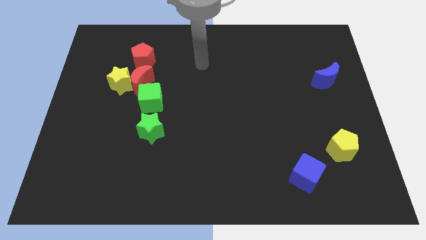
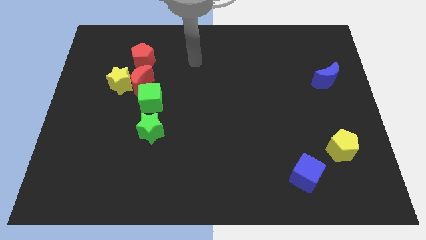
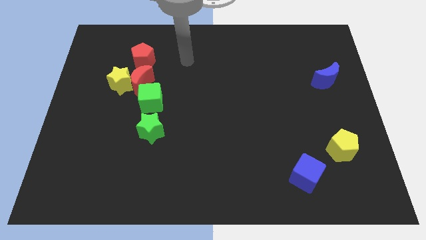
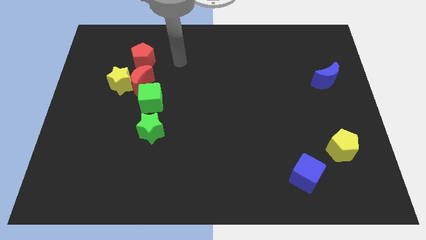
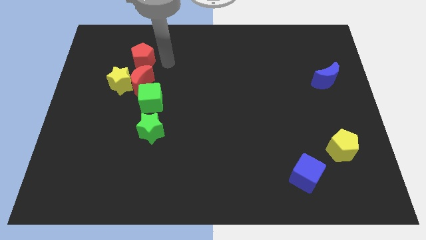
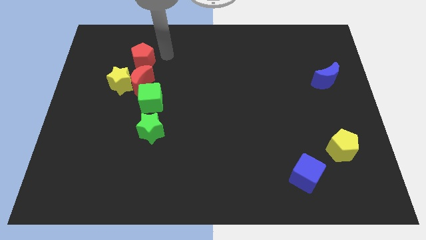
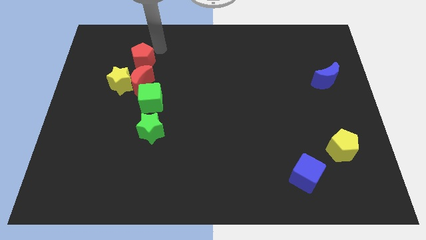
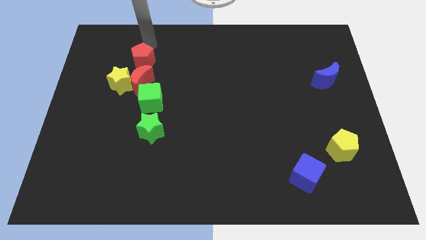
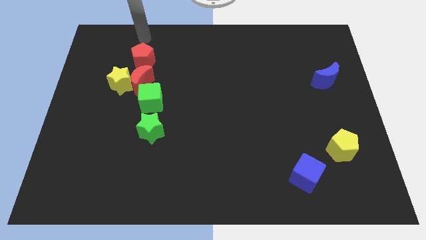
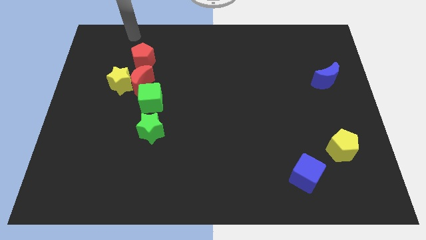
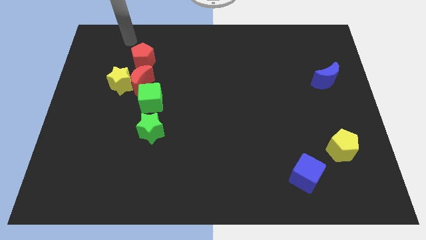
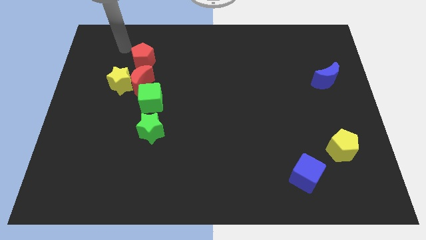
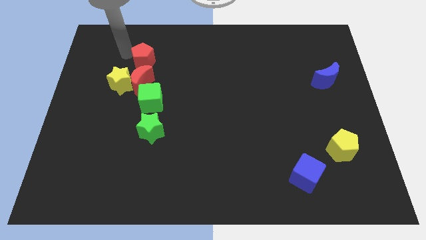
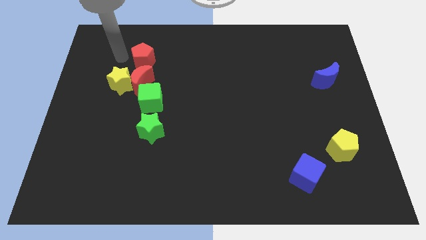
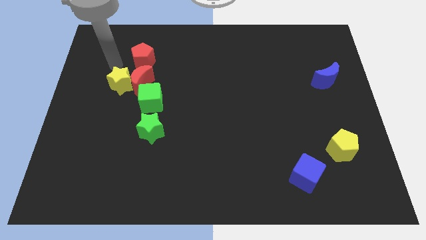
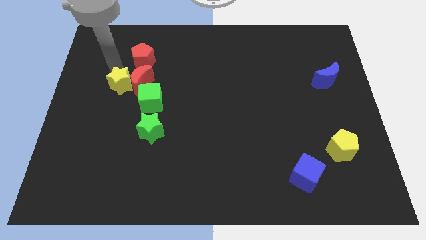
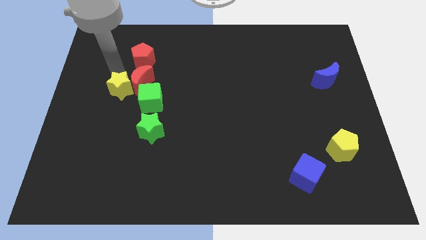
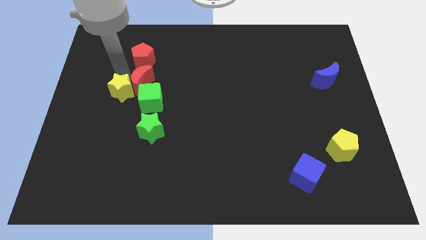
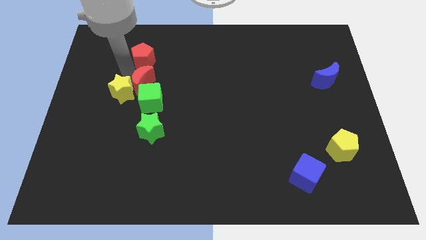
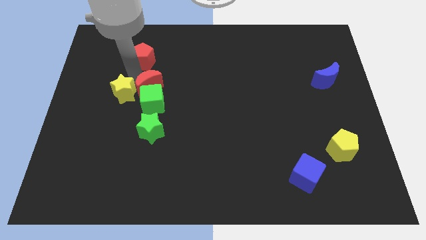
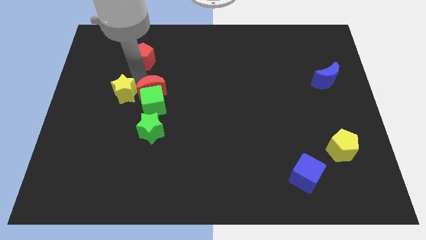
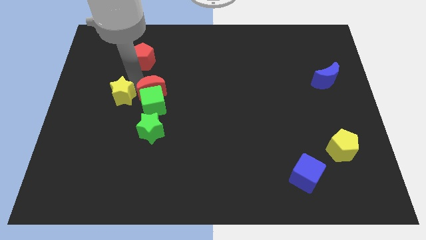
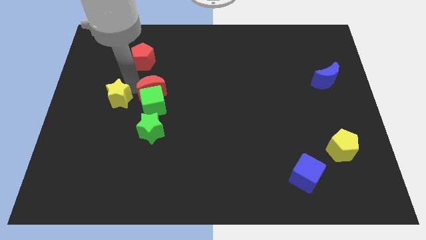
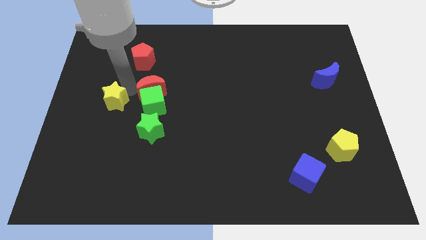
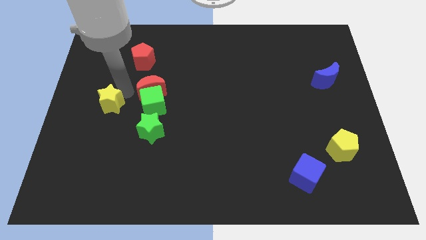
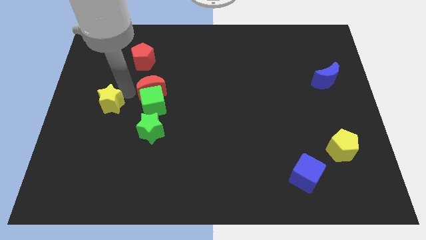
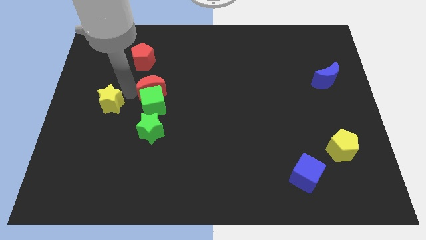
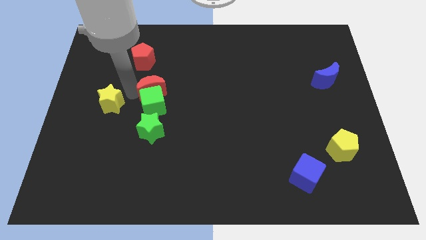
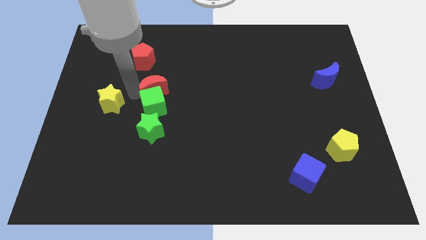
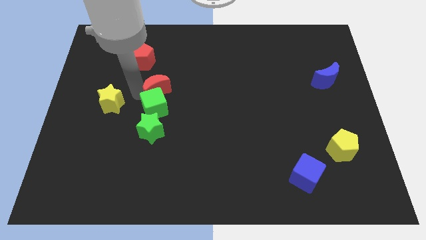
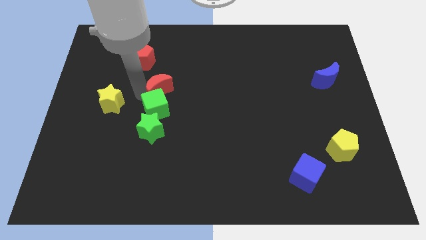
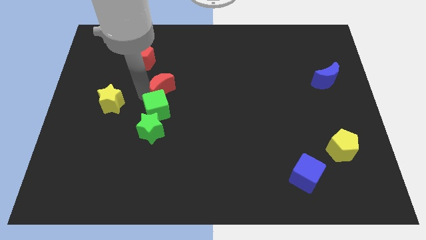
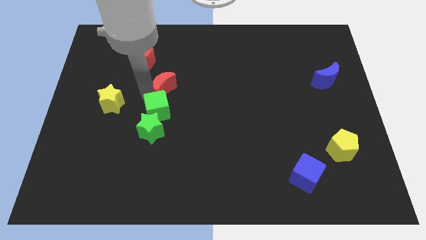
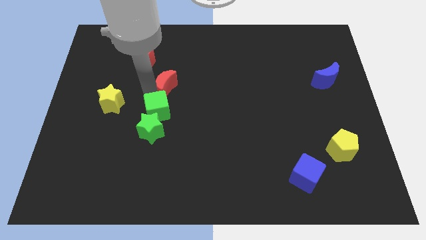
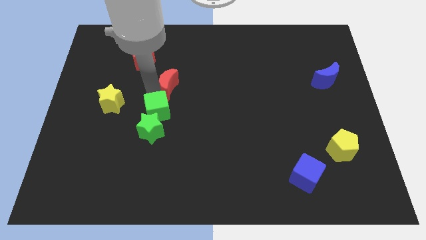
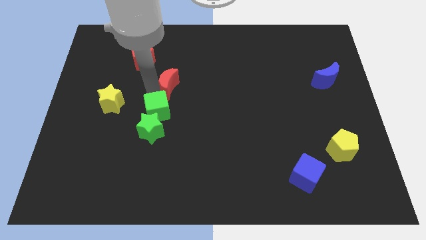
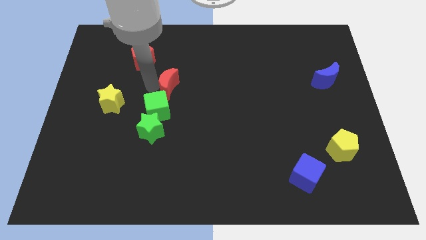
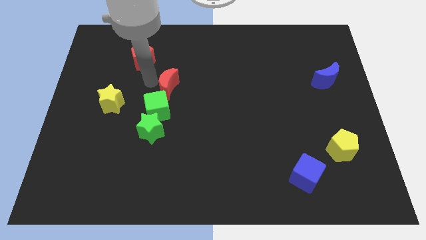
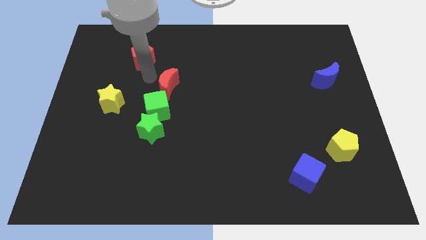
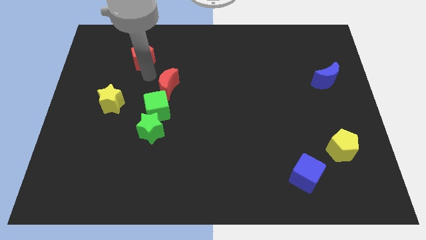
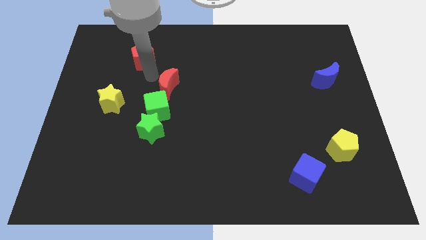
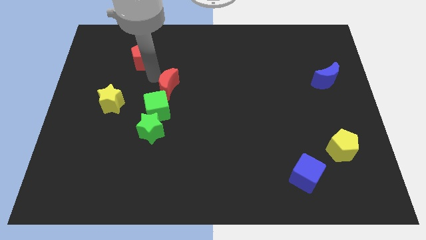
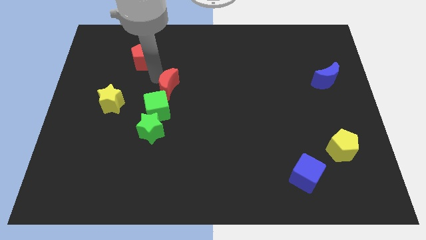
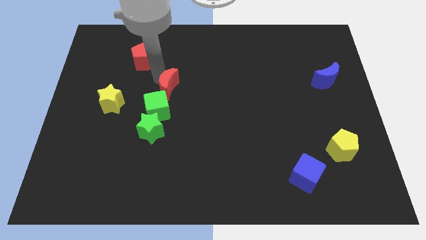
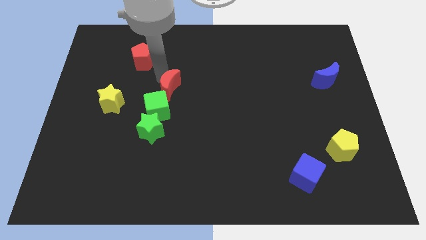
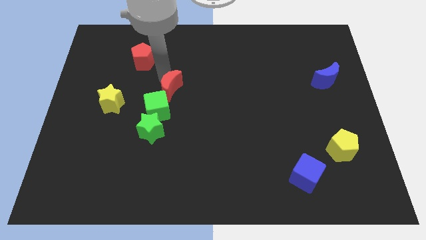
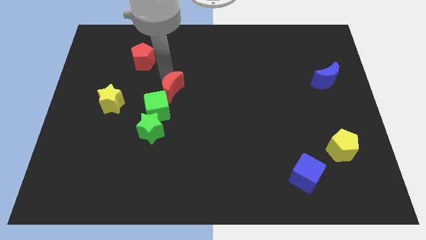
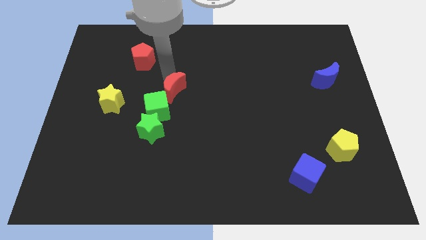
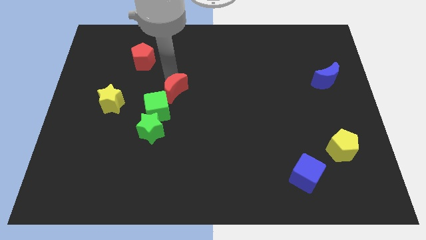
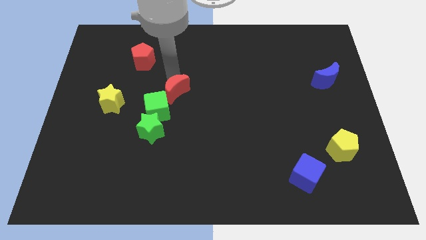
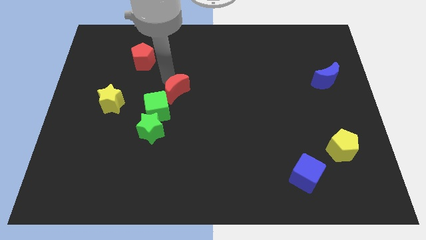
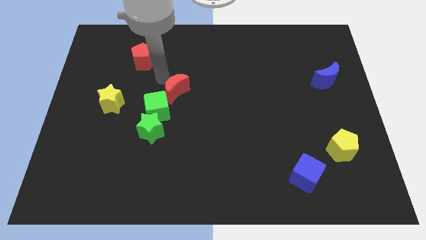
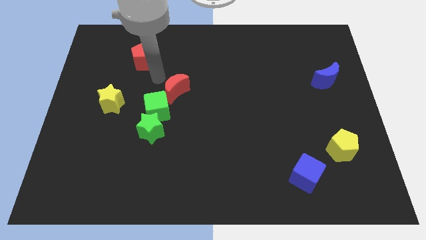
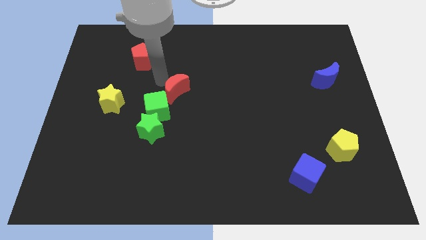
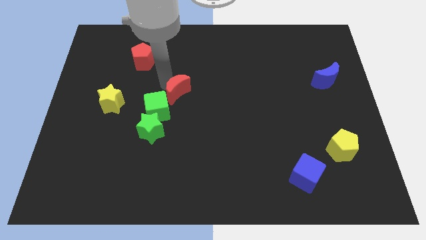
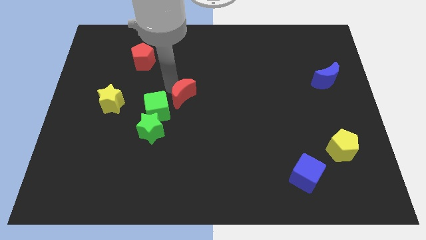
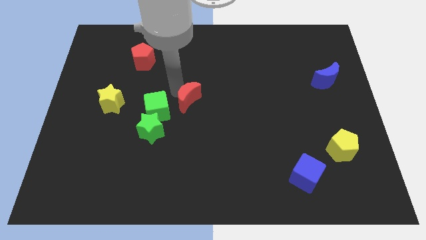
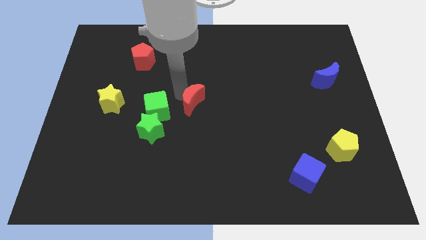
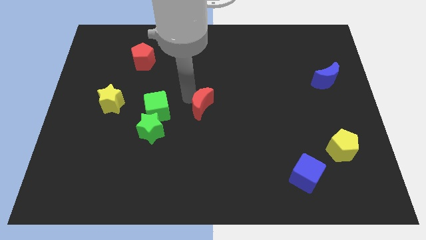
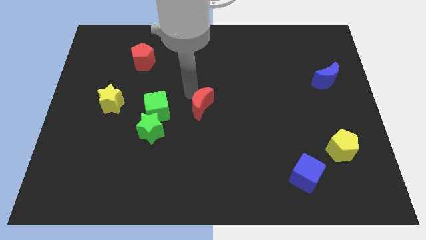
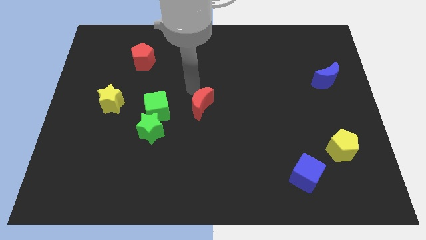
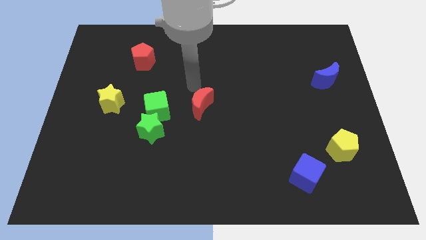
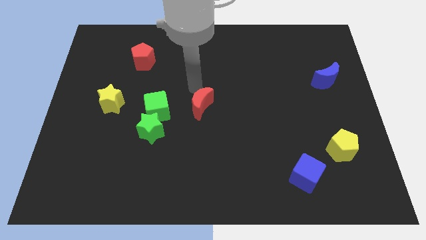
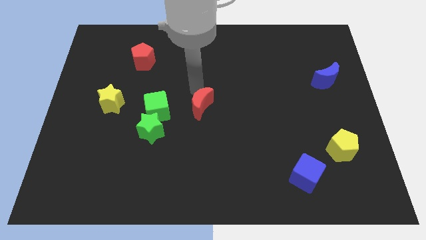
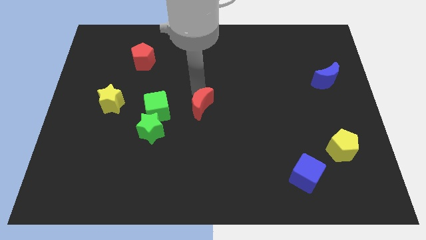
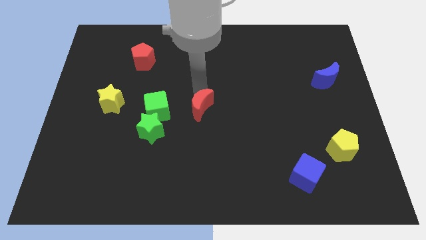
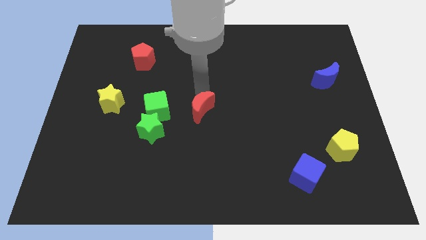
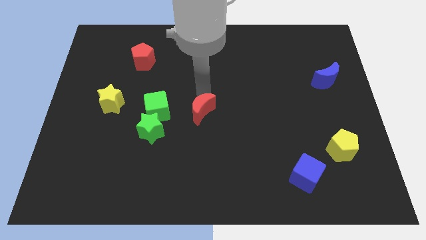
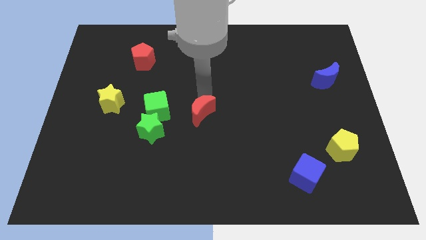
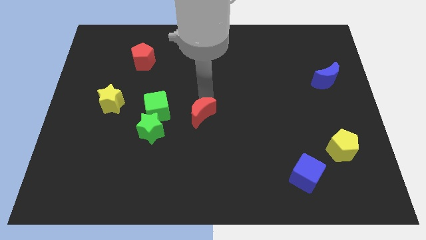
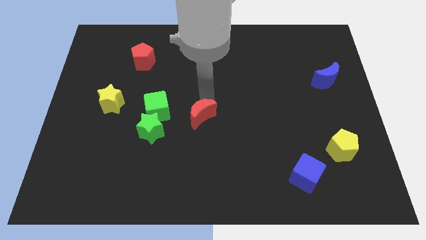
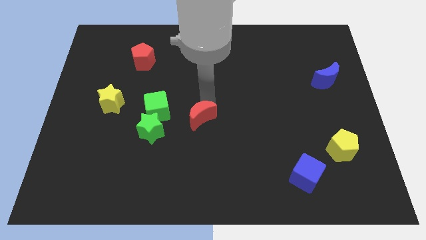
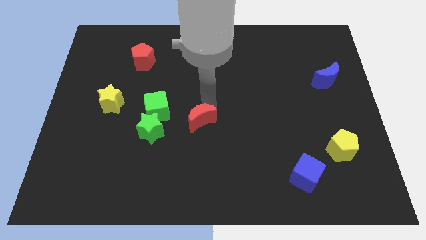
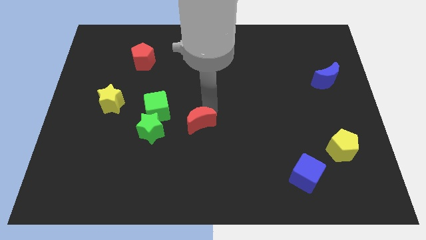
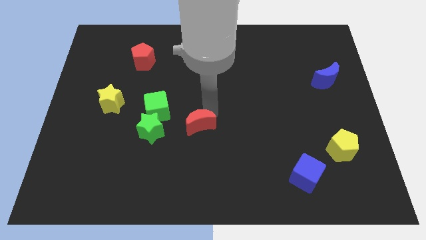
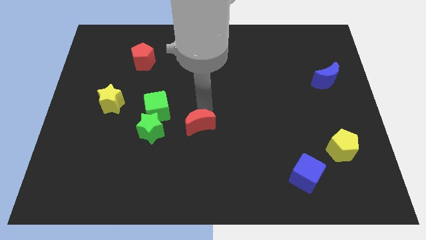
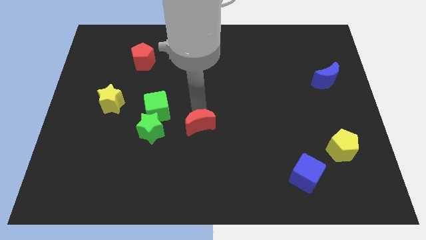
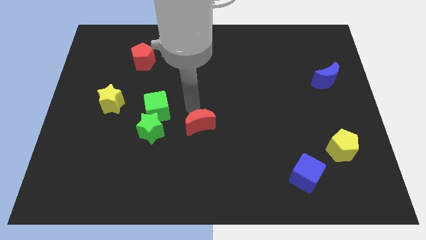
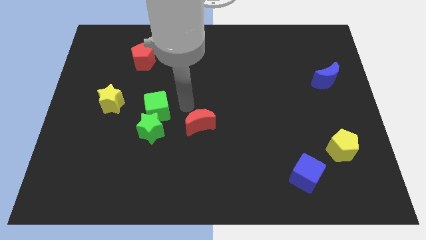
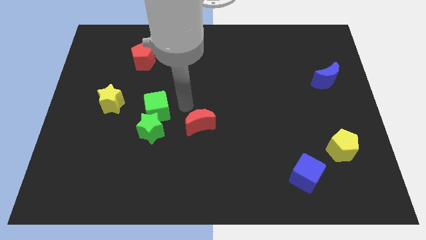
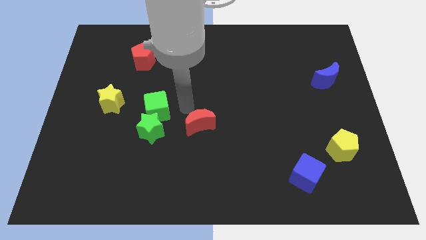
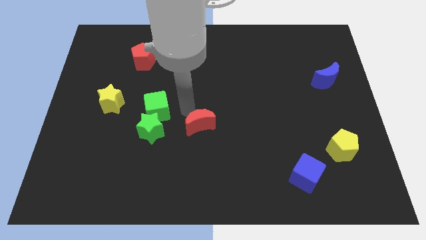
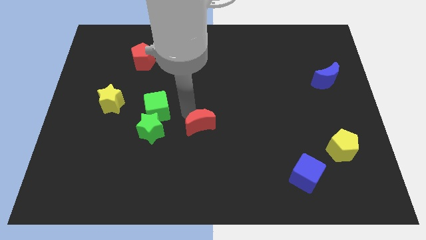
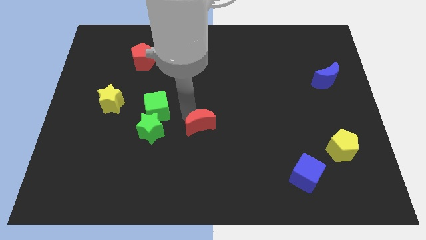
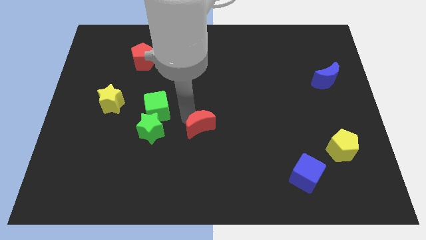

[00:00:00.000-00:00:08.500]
push the red moon down and then to the right
